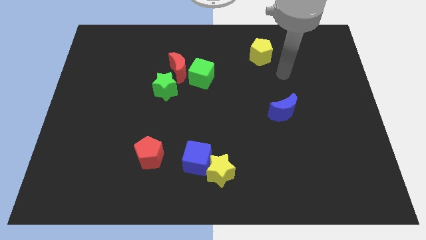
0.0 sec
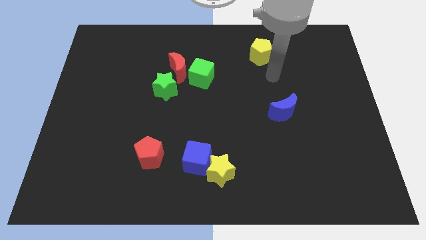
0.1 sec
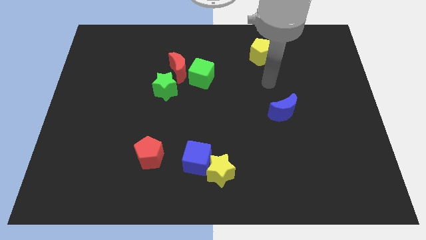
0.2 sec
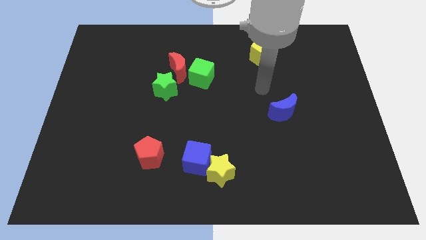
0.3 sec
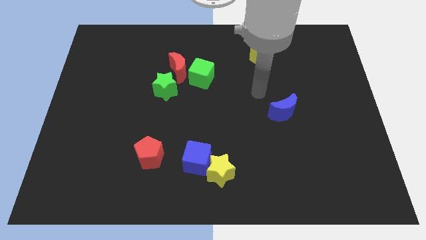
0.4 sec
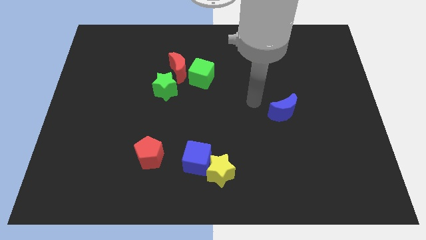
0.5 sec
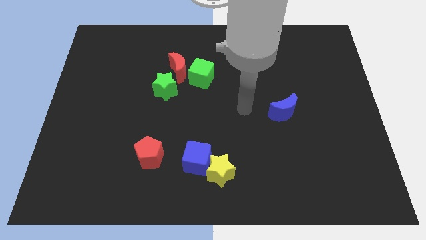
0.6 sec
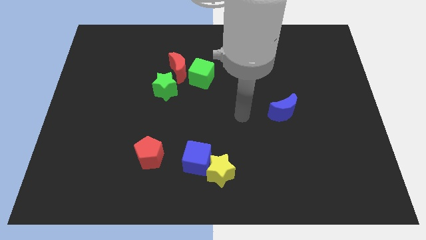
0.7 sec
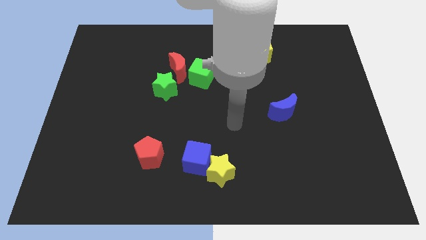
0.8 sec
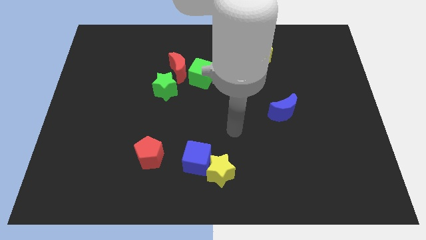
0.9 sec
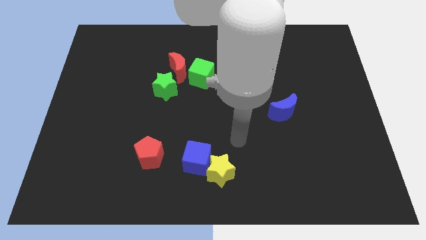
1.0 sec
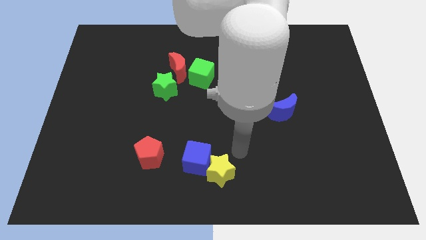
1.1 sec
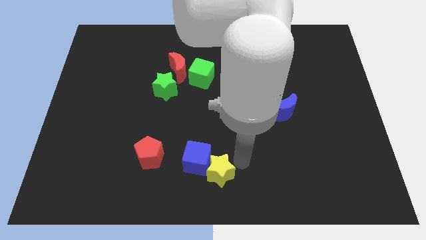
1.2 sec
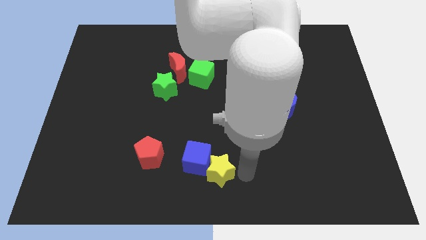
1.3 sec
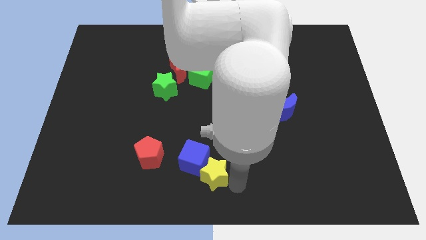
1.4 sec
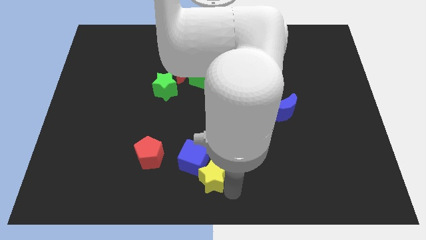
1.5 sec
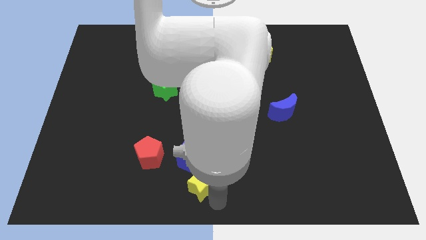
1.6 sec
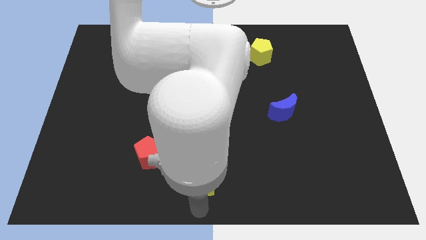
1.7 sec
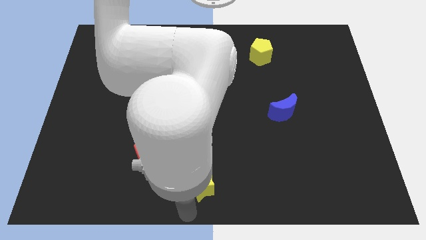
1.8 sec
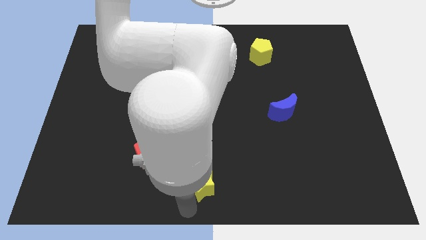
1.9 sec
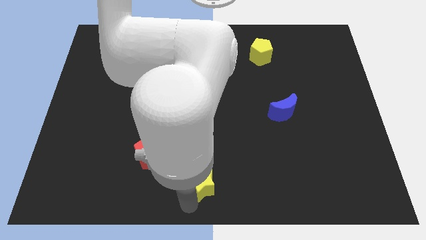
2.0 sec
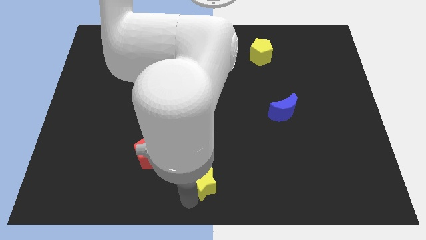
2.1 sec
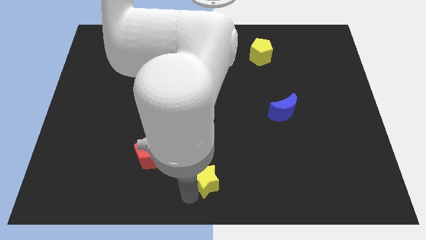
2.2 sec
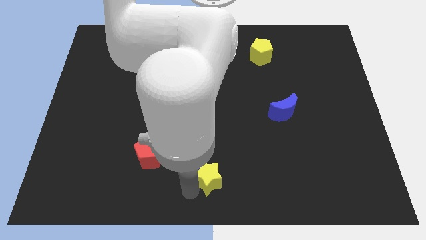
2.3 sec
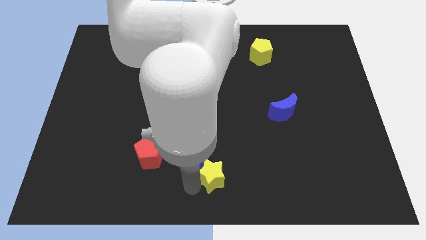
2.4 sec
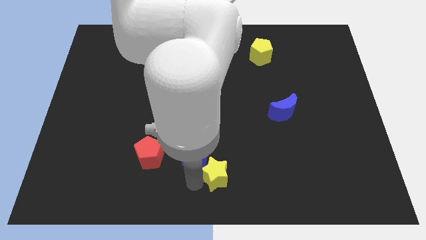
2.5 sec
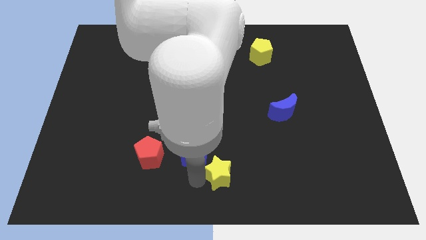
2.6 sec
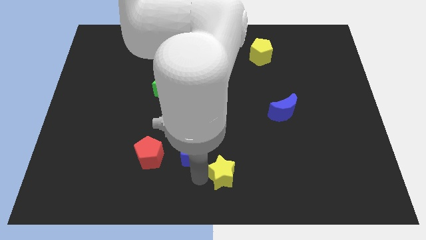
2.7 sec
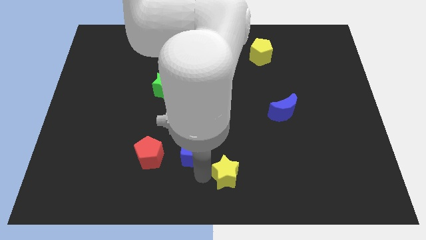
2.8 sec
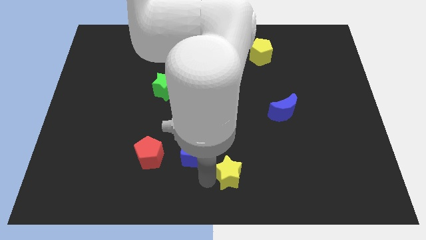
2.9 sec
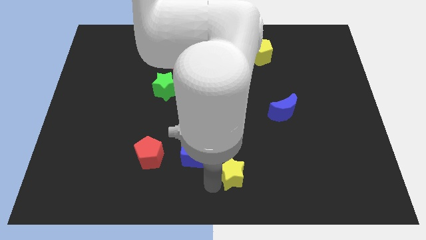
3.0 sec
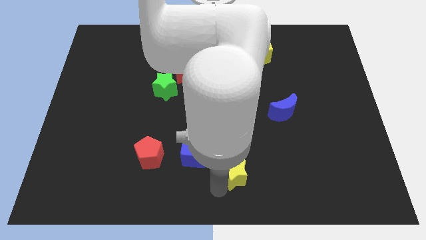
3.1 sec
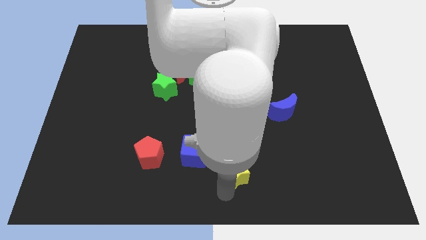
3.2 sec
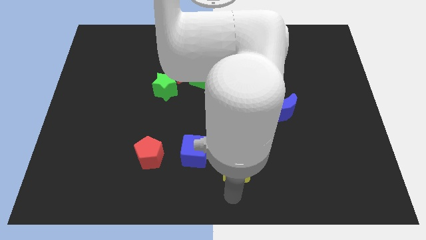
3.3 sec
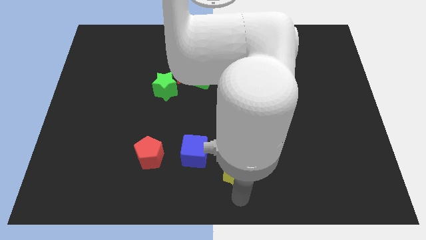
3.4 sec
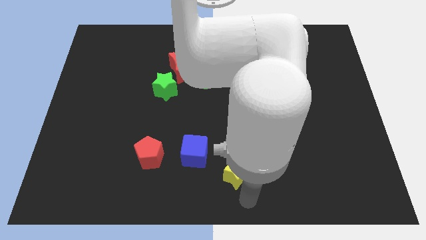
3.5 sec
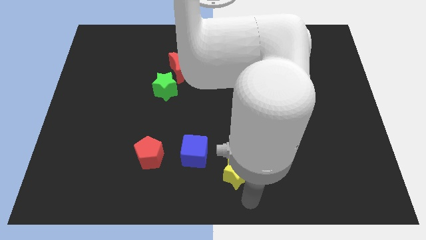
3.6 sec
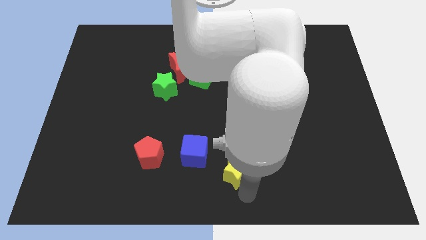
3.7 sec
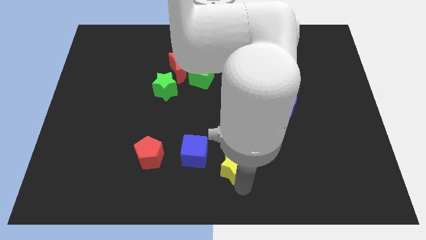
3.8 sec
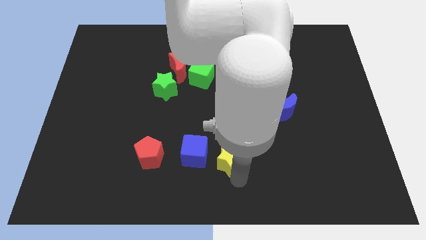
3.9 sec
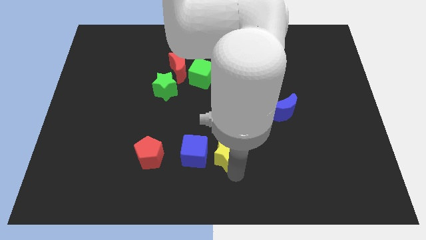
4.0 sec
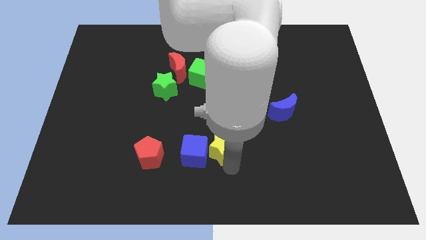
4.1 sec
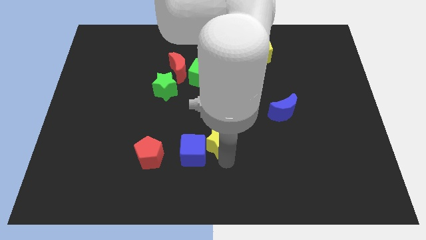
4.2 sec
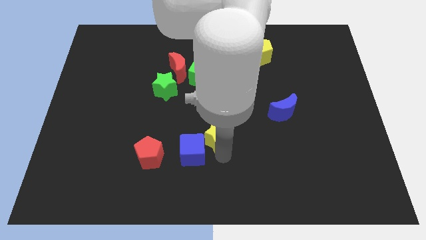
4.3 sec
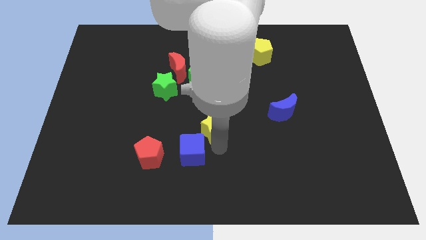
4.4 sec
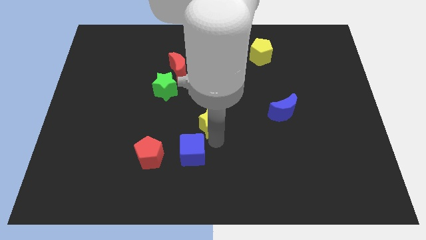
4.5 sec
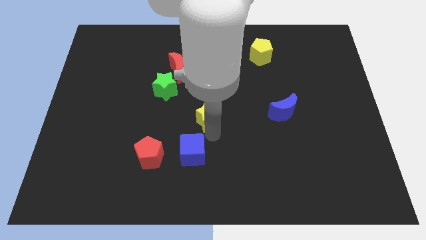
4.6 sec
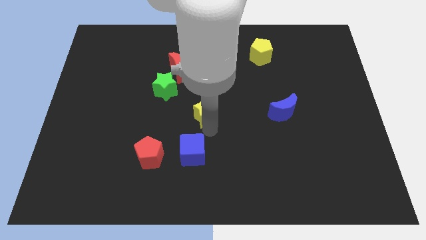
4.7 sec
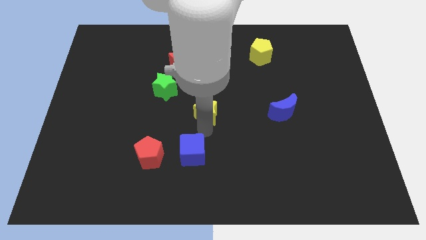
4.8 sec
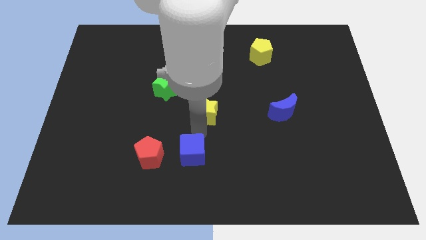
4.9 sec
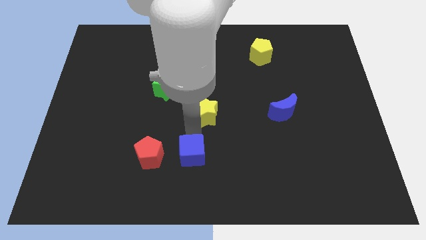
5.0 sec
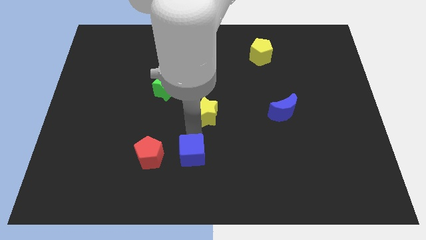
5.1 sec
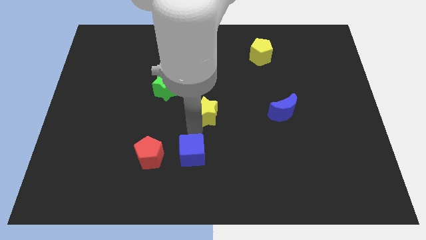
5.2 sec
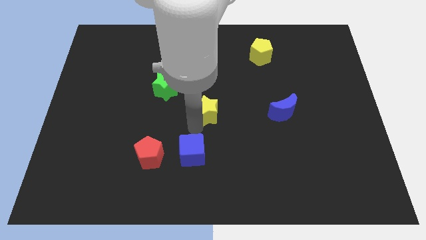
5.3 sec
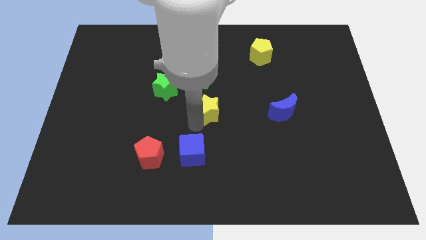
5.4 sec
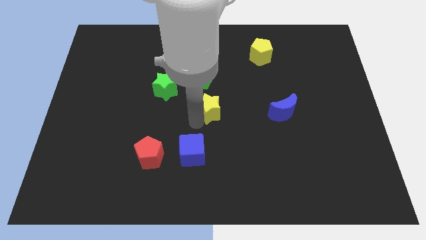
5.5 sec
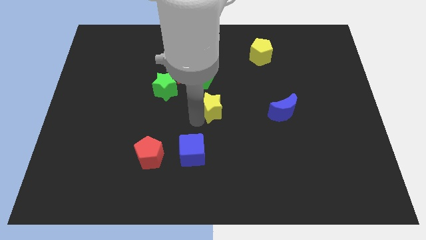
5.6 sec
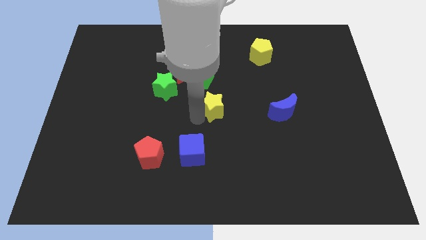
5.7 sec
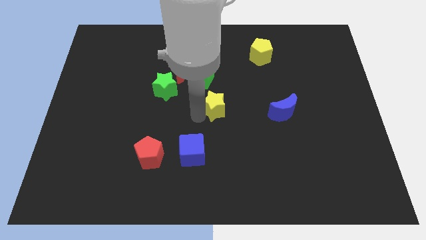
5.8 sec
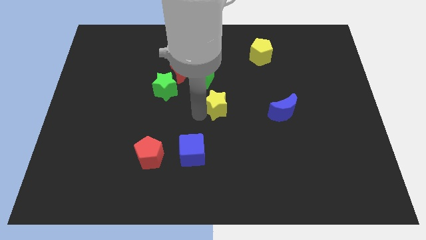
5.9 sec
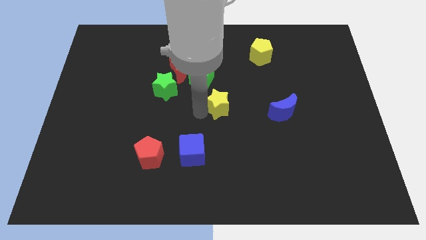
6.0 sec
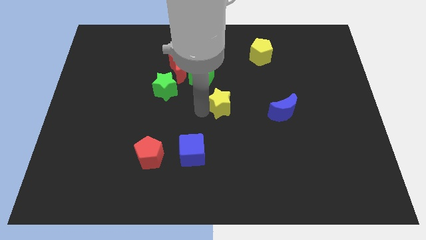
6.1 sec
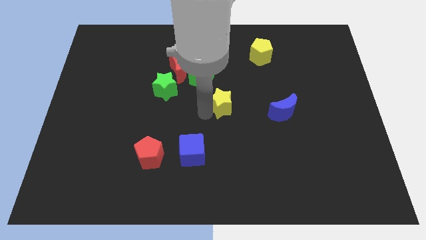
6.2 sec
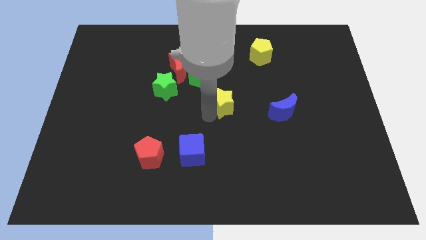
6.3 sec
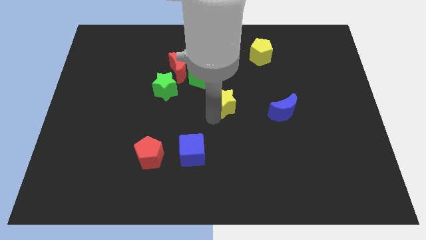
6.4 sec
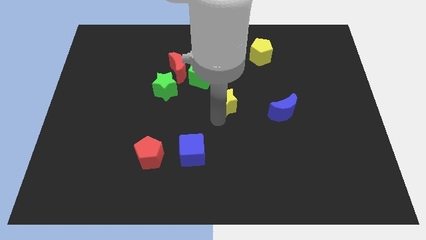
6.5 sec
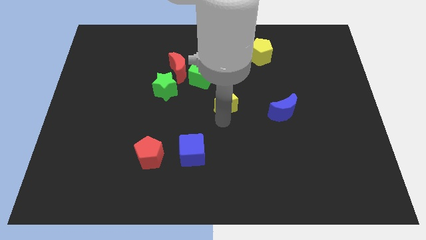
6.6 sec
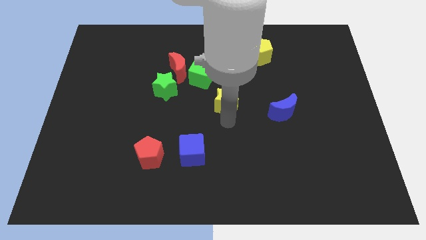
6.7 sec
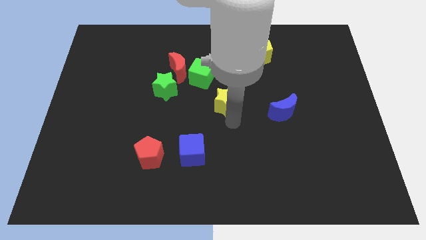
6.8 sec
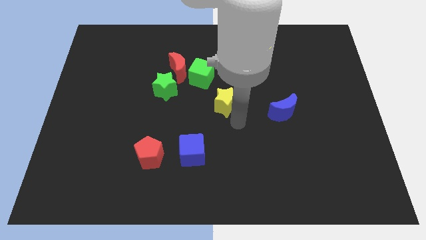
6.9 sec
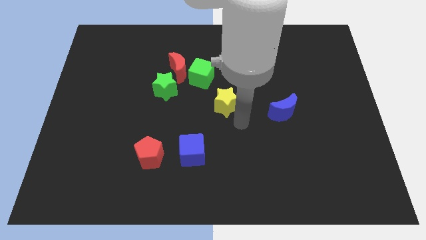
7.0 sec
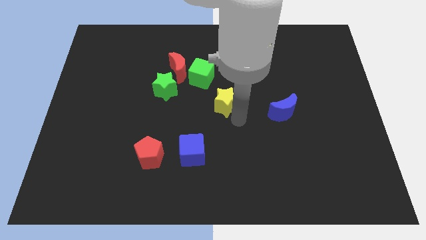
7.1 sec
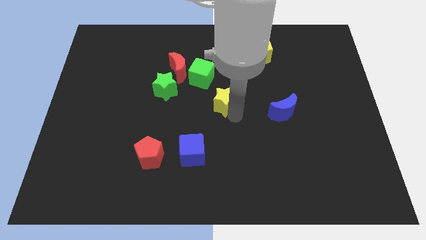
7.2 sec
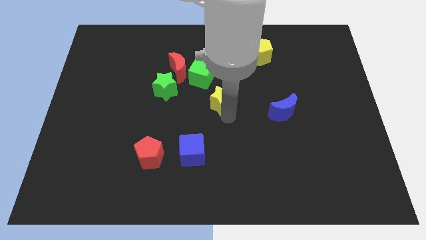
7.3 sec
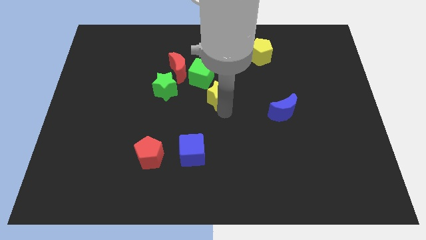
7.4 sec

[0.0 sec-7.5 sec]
move the yellow star up

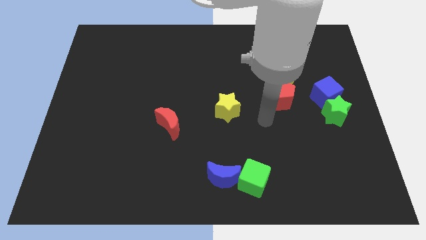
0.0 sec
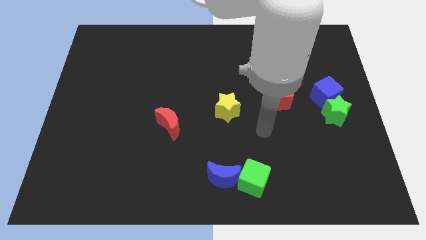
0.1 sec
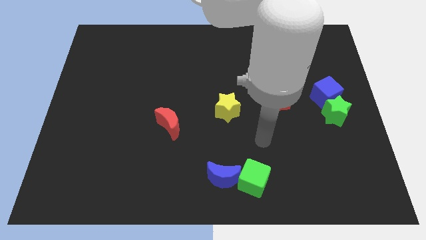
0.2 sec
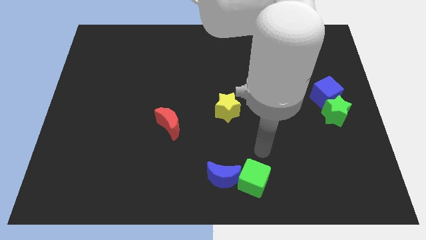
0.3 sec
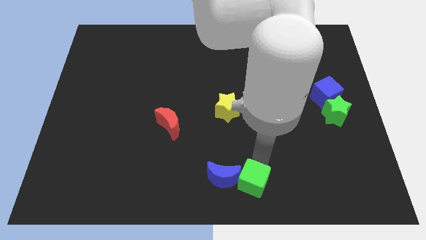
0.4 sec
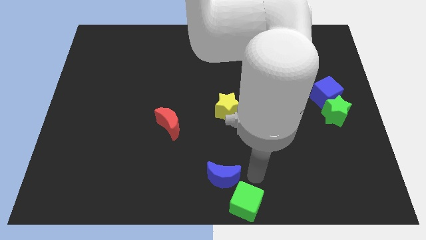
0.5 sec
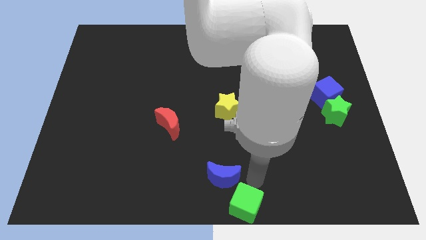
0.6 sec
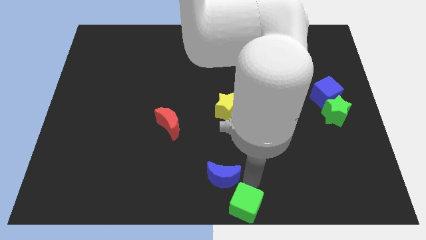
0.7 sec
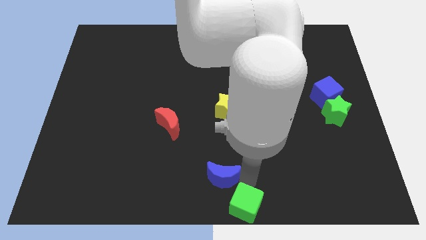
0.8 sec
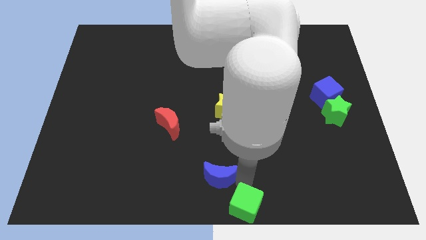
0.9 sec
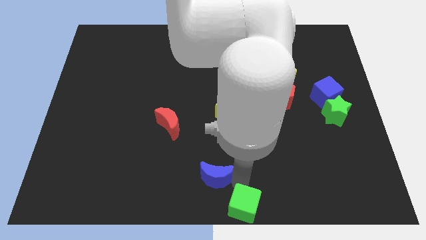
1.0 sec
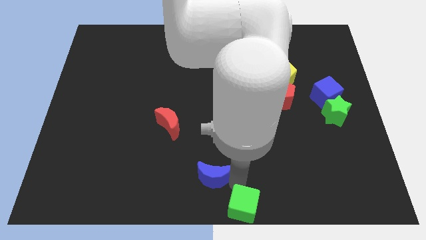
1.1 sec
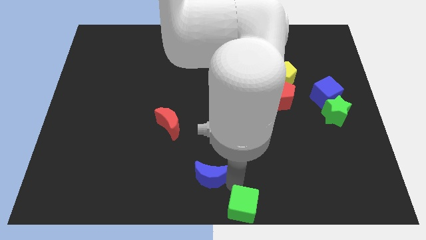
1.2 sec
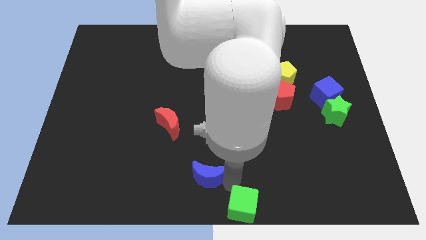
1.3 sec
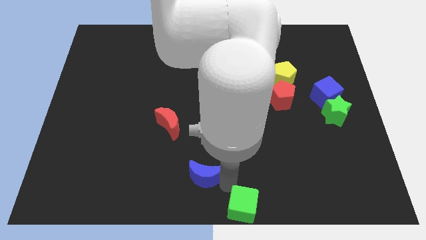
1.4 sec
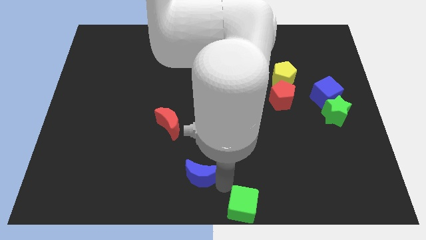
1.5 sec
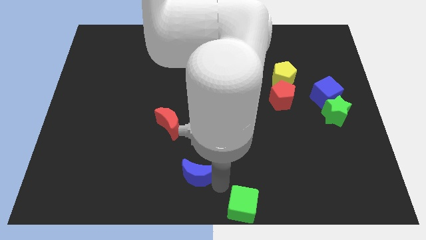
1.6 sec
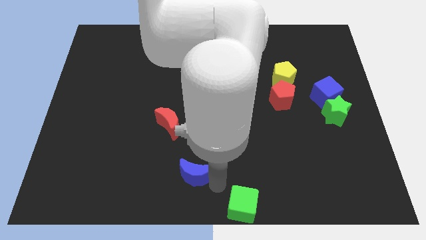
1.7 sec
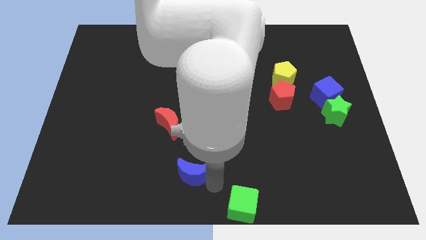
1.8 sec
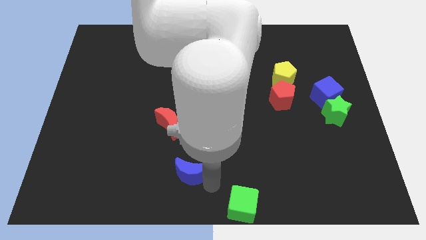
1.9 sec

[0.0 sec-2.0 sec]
slightly move the blue moon to the left
